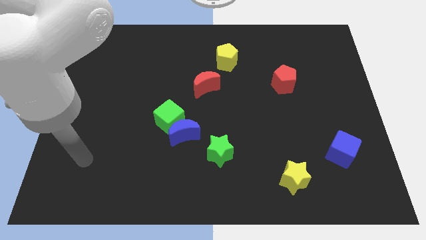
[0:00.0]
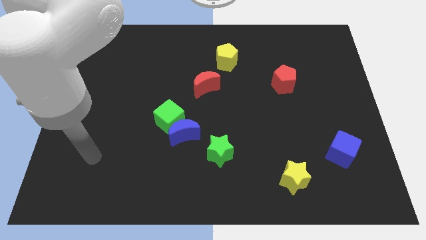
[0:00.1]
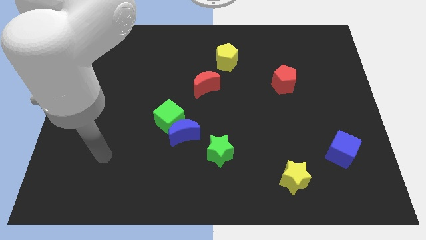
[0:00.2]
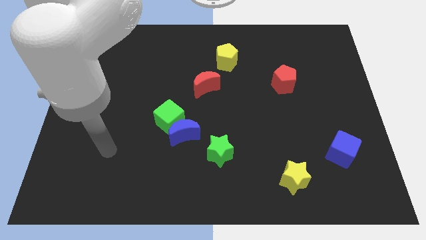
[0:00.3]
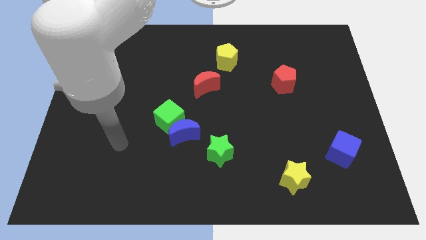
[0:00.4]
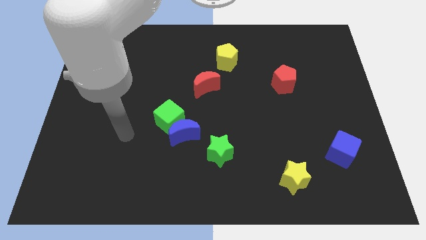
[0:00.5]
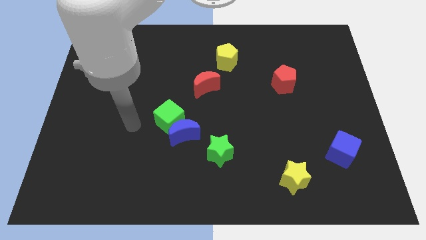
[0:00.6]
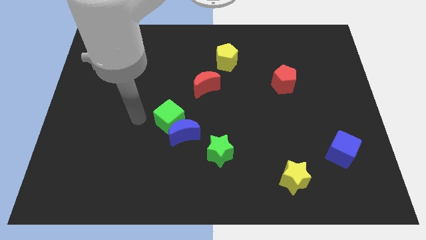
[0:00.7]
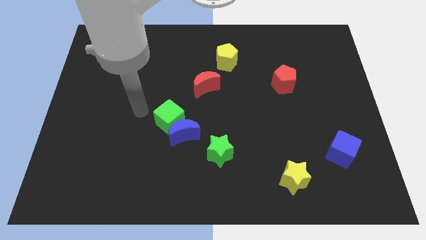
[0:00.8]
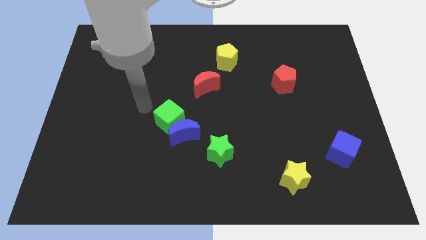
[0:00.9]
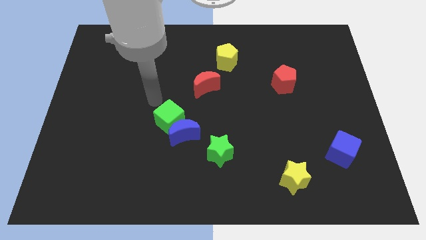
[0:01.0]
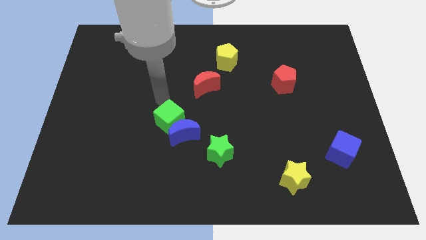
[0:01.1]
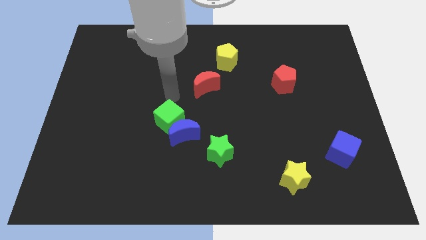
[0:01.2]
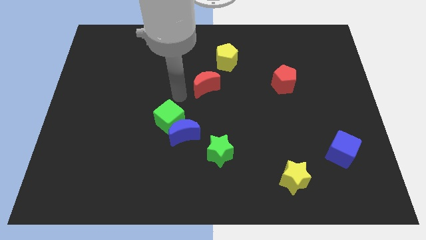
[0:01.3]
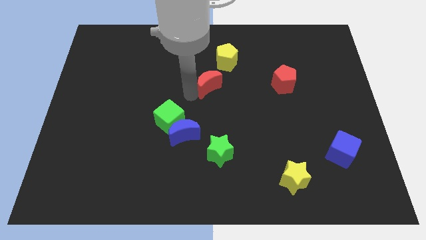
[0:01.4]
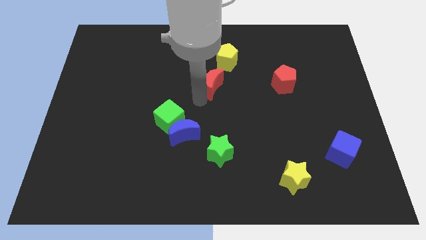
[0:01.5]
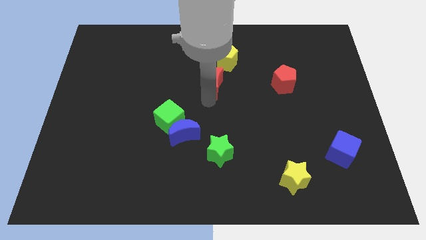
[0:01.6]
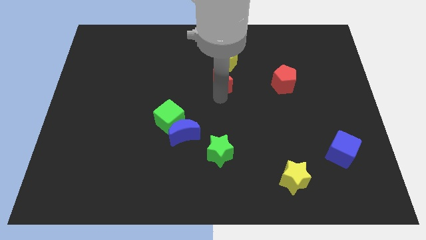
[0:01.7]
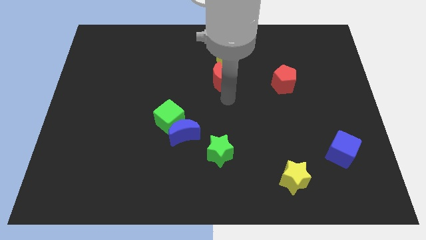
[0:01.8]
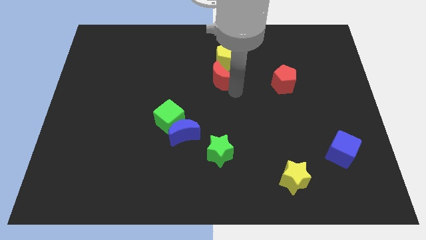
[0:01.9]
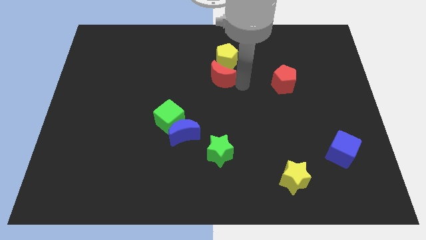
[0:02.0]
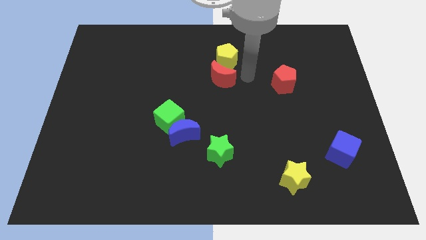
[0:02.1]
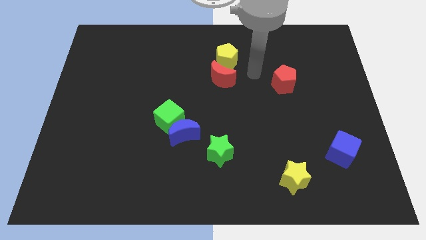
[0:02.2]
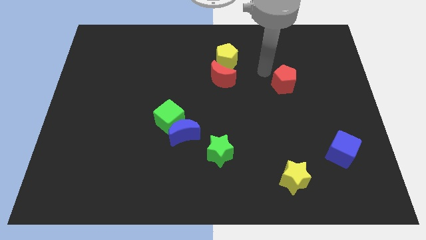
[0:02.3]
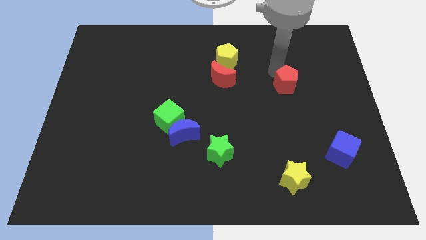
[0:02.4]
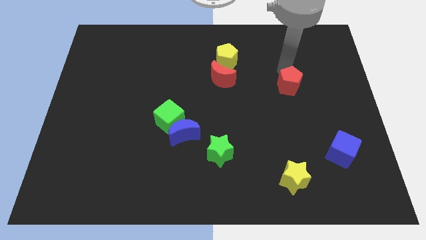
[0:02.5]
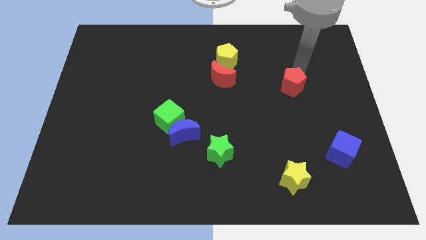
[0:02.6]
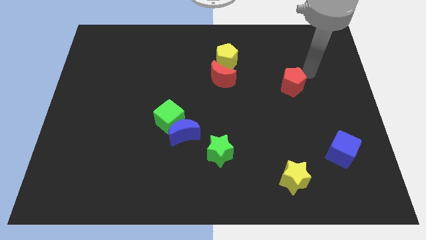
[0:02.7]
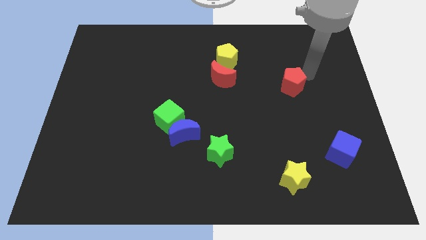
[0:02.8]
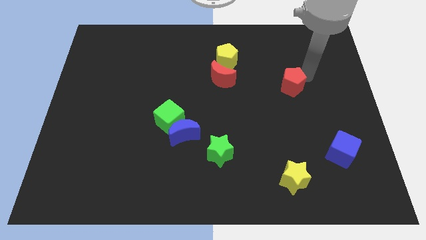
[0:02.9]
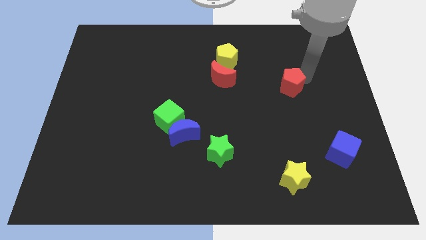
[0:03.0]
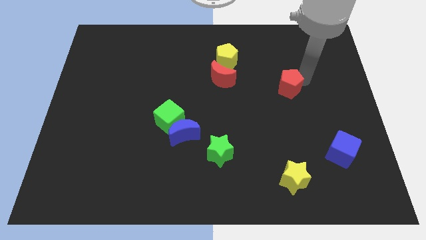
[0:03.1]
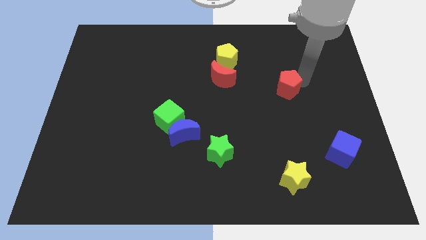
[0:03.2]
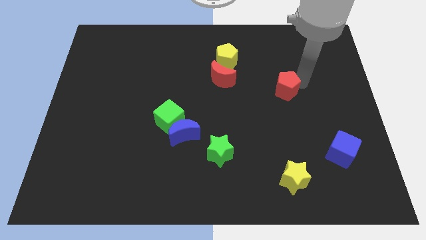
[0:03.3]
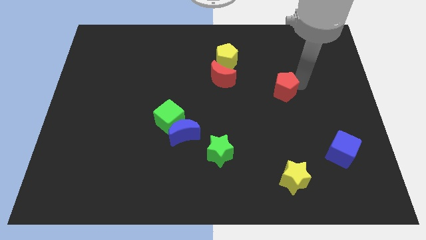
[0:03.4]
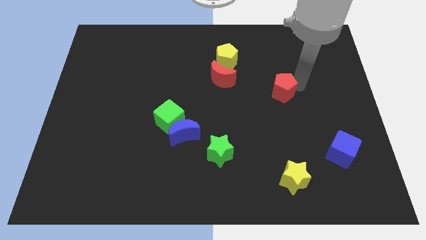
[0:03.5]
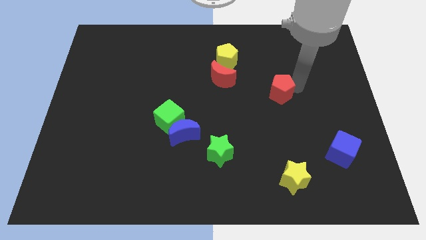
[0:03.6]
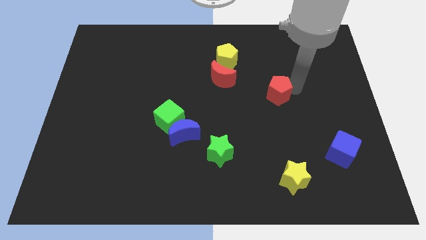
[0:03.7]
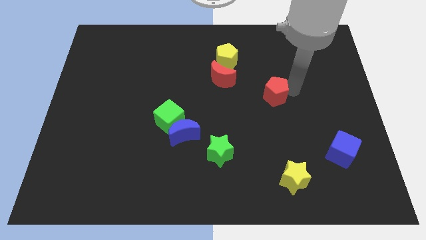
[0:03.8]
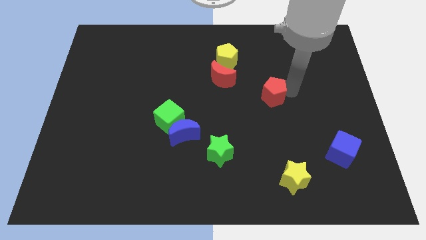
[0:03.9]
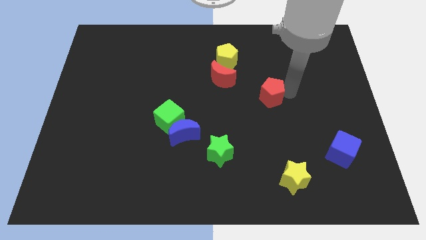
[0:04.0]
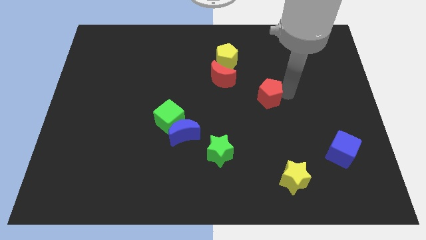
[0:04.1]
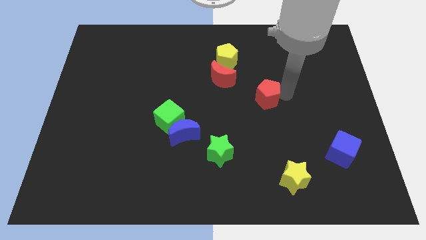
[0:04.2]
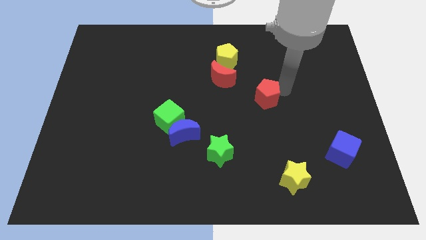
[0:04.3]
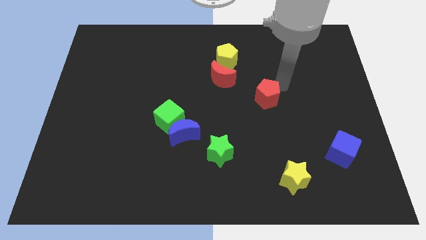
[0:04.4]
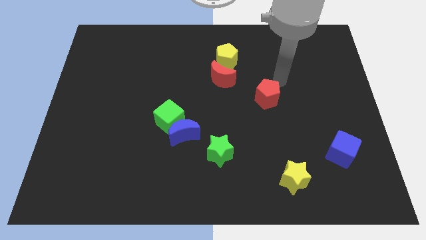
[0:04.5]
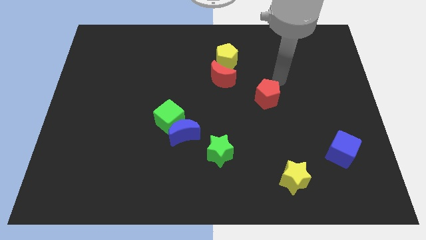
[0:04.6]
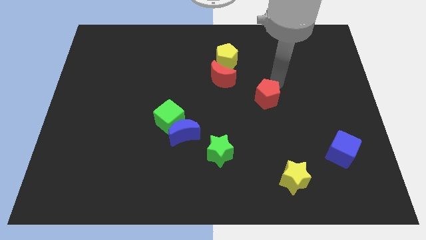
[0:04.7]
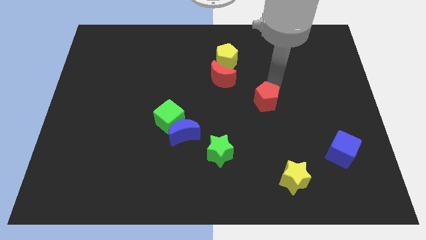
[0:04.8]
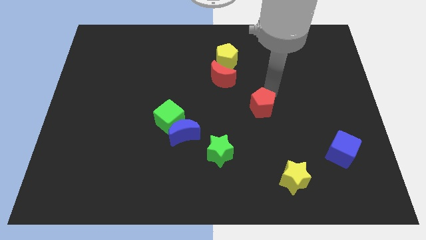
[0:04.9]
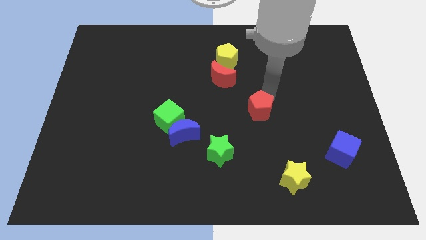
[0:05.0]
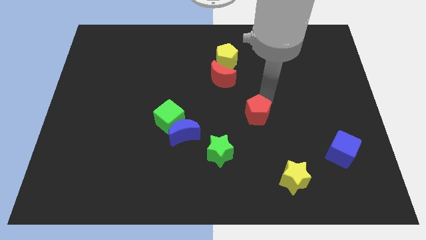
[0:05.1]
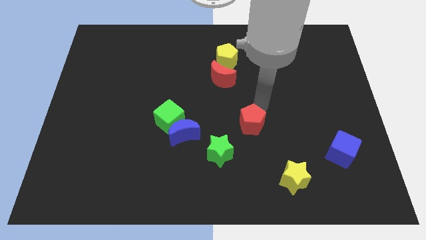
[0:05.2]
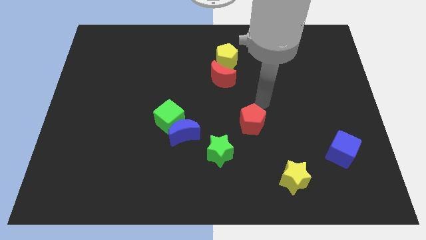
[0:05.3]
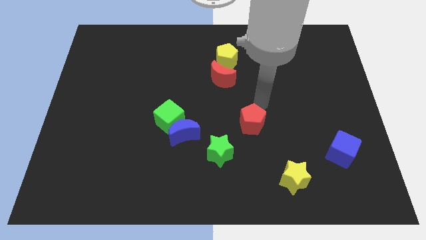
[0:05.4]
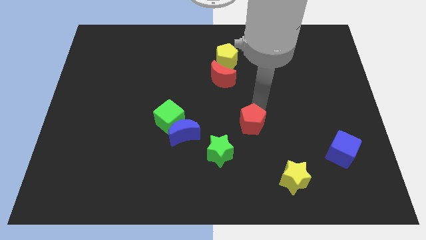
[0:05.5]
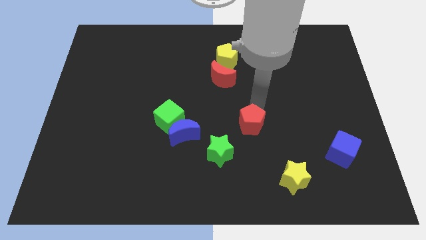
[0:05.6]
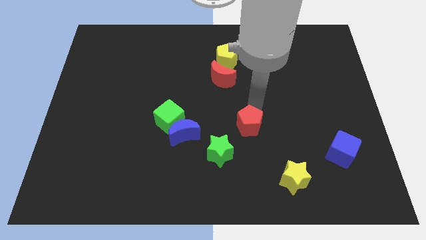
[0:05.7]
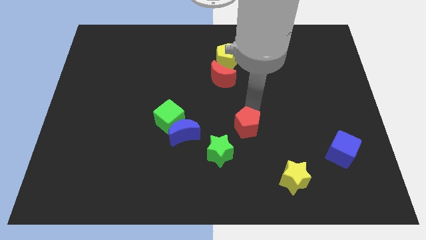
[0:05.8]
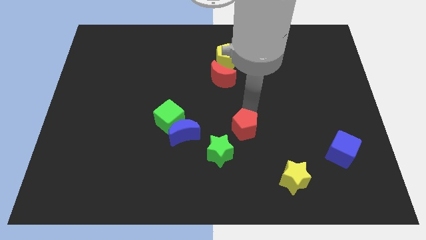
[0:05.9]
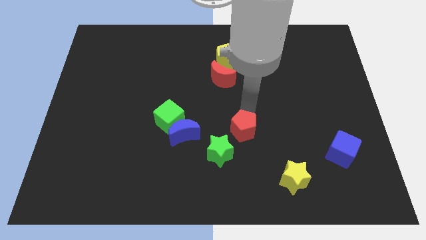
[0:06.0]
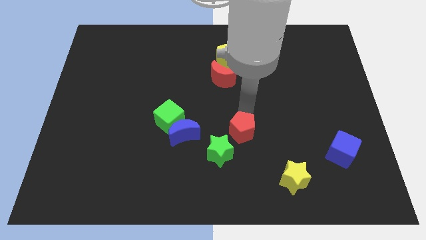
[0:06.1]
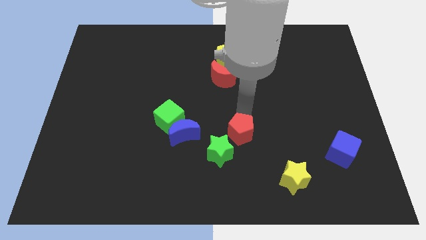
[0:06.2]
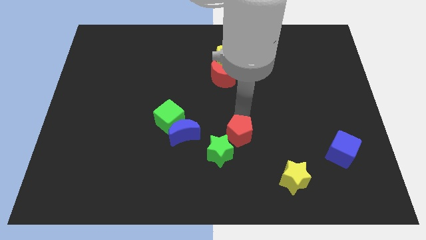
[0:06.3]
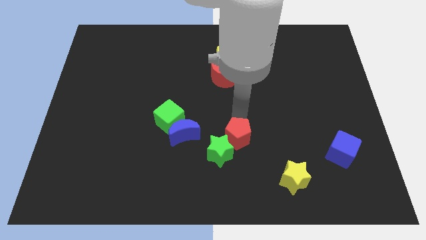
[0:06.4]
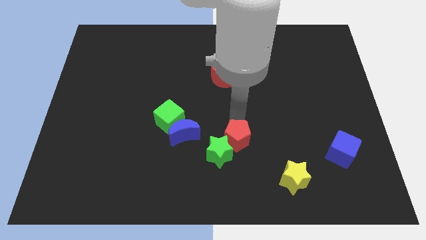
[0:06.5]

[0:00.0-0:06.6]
slide the red pentagon downwards and left diagonally

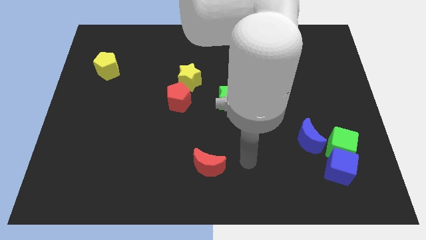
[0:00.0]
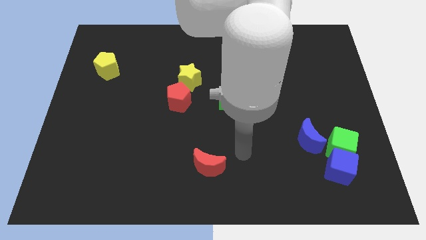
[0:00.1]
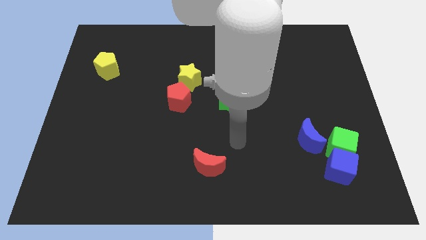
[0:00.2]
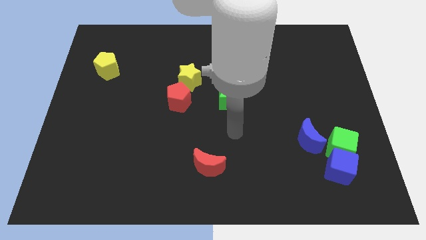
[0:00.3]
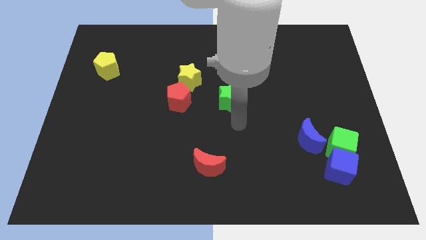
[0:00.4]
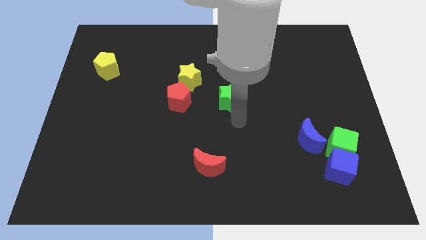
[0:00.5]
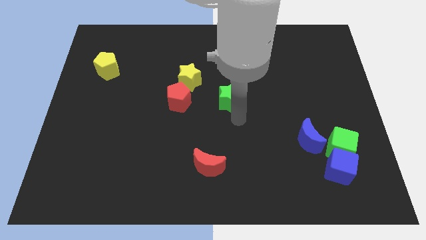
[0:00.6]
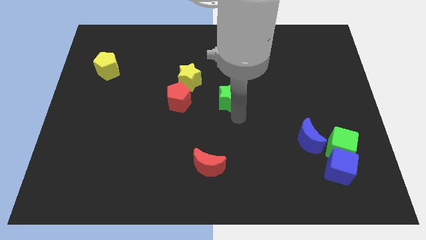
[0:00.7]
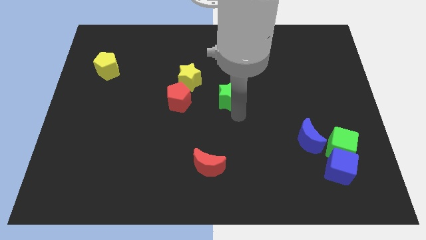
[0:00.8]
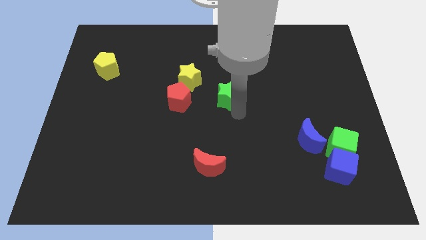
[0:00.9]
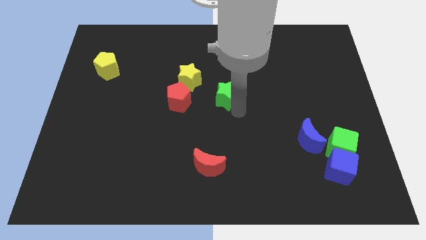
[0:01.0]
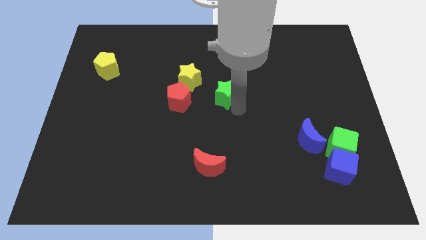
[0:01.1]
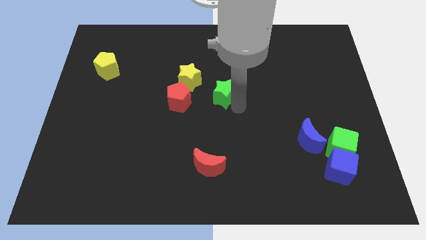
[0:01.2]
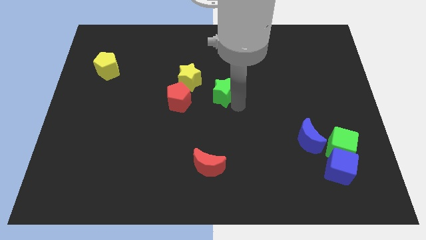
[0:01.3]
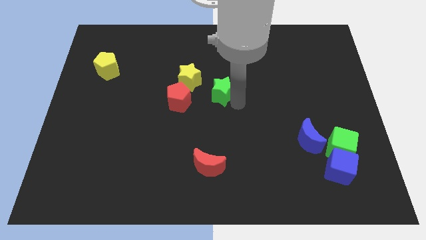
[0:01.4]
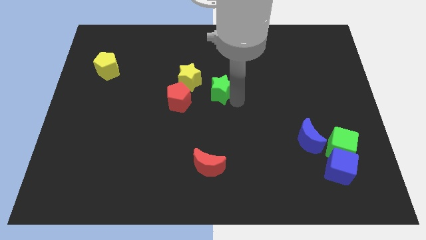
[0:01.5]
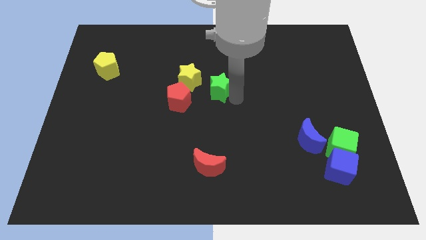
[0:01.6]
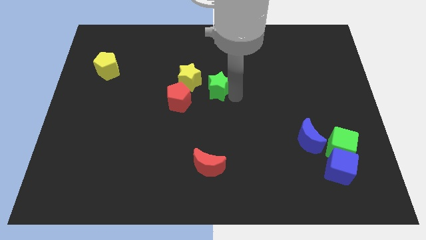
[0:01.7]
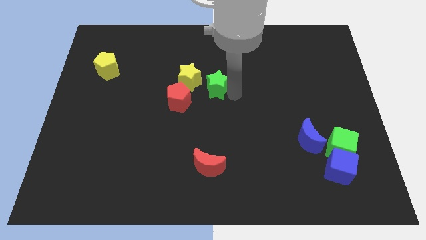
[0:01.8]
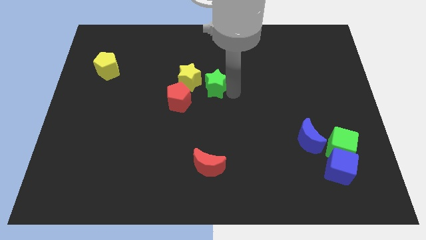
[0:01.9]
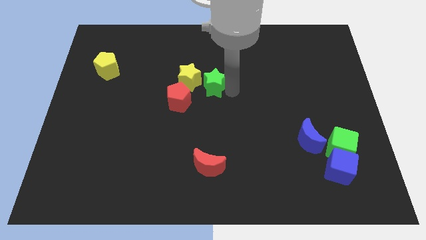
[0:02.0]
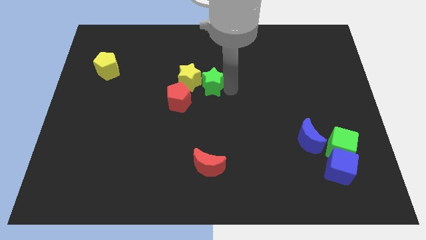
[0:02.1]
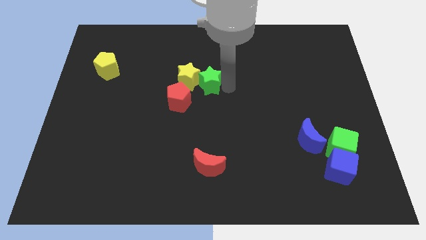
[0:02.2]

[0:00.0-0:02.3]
move the green star up and to the left somewhat
